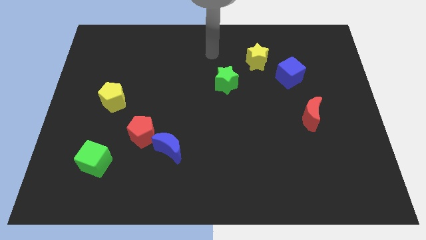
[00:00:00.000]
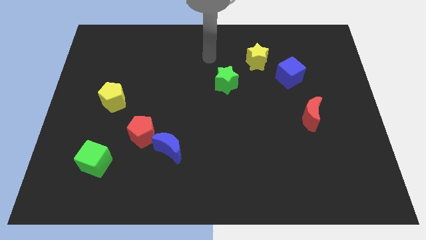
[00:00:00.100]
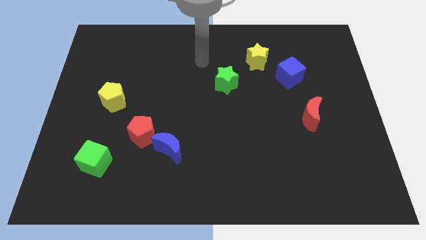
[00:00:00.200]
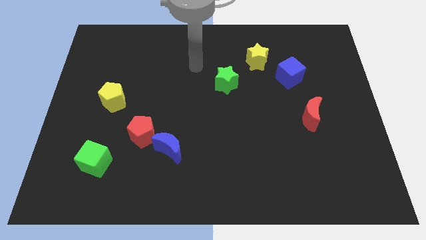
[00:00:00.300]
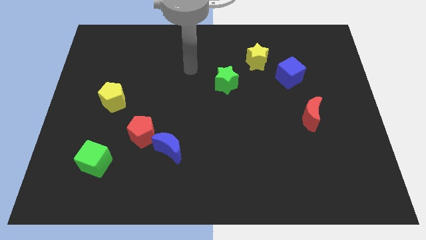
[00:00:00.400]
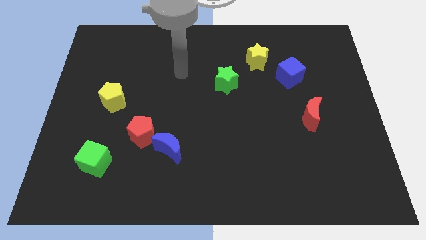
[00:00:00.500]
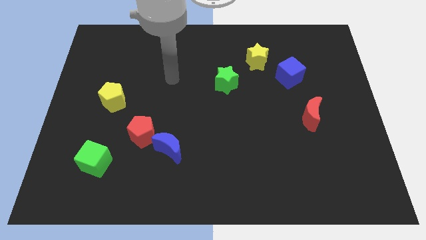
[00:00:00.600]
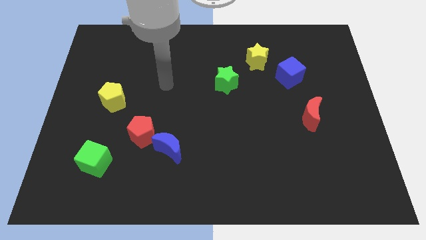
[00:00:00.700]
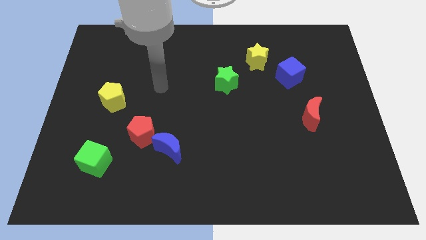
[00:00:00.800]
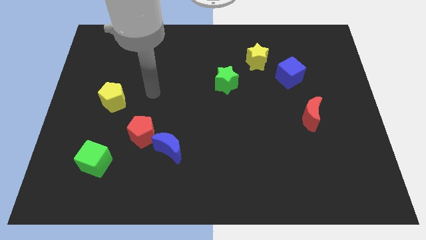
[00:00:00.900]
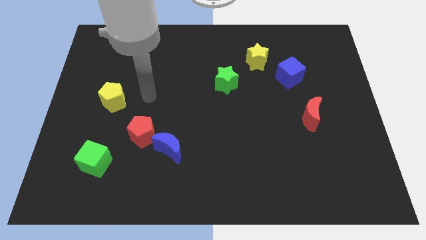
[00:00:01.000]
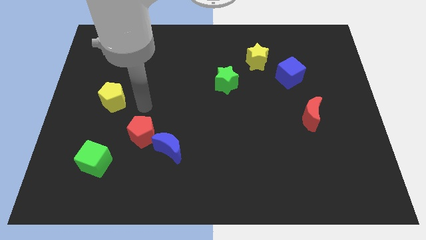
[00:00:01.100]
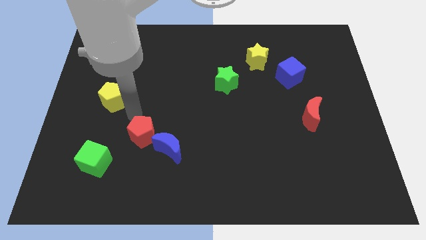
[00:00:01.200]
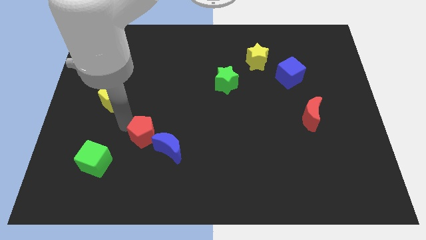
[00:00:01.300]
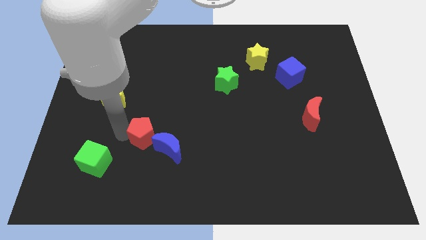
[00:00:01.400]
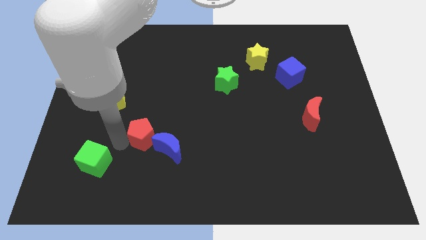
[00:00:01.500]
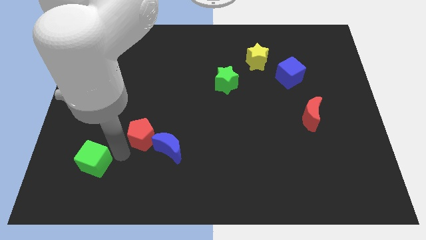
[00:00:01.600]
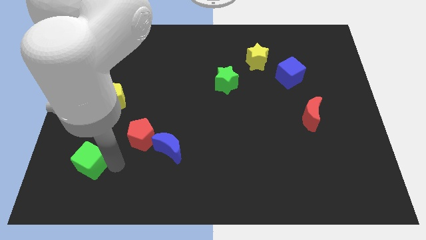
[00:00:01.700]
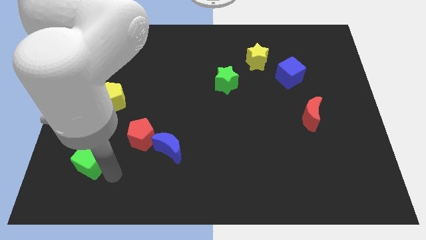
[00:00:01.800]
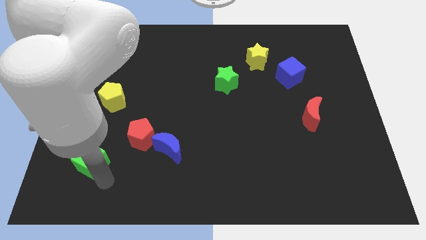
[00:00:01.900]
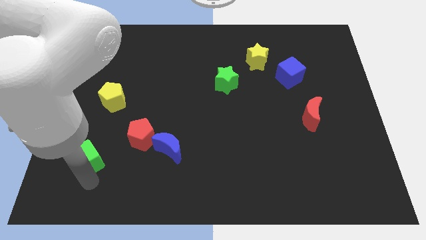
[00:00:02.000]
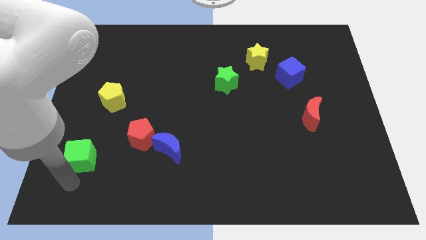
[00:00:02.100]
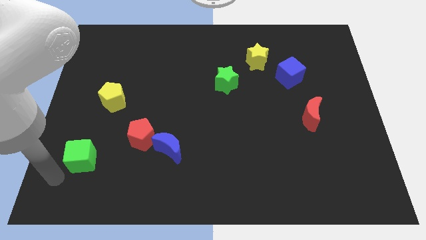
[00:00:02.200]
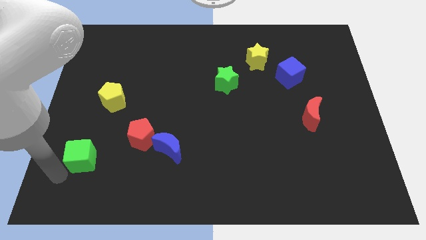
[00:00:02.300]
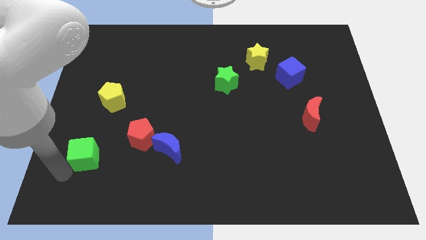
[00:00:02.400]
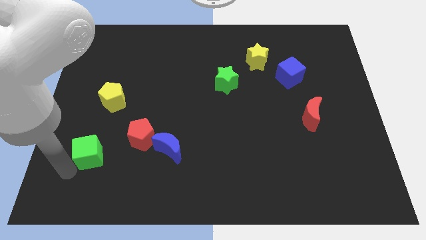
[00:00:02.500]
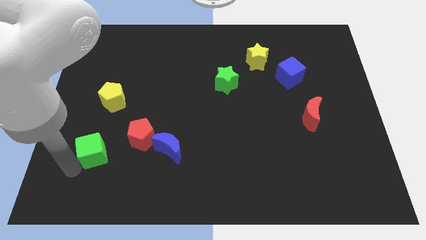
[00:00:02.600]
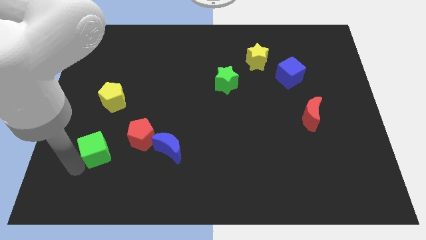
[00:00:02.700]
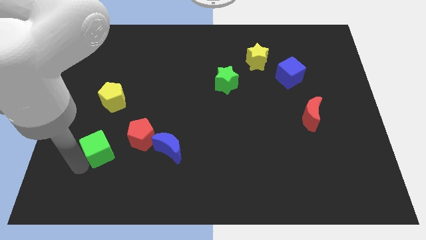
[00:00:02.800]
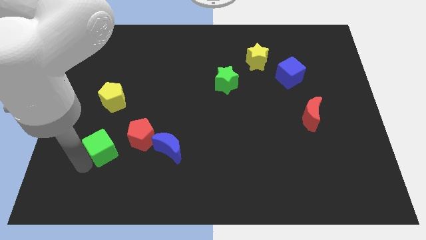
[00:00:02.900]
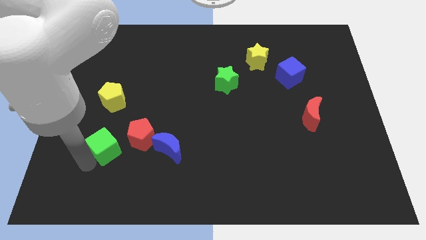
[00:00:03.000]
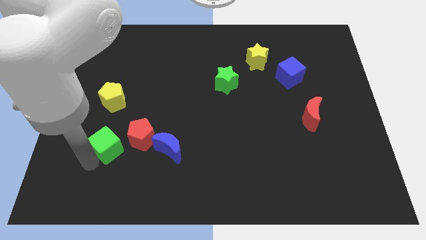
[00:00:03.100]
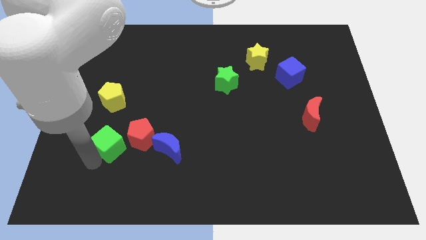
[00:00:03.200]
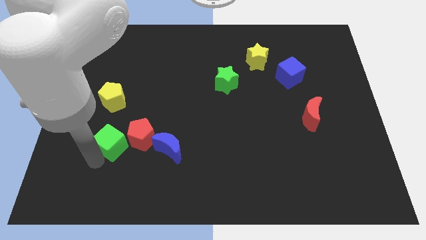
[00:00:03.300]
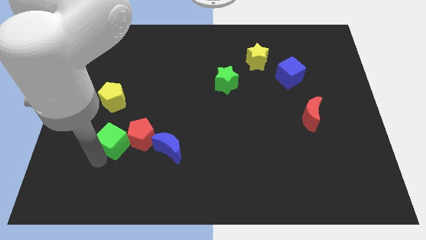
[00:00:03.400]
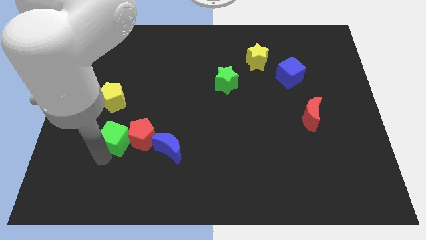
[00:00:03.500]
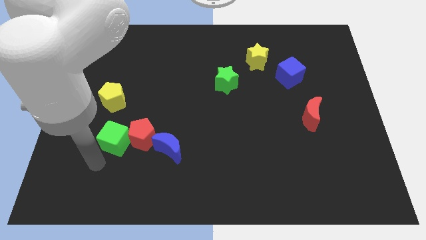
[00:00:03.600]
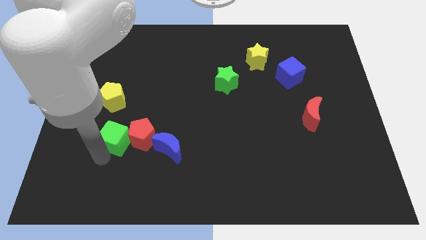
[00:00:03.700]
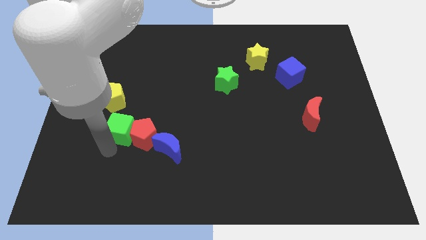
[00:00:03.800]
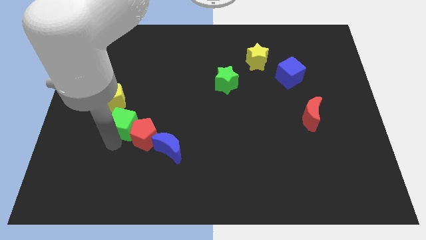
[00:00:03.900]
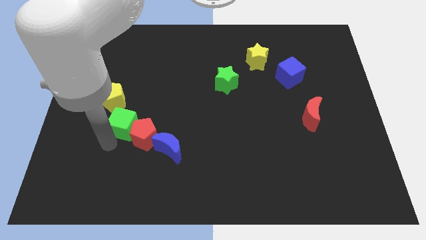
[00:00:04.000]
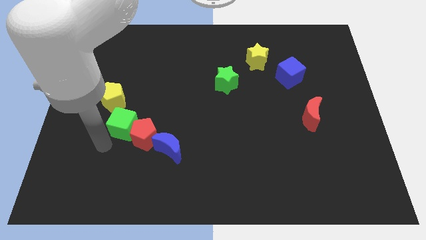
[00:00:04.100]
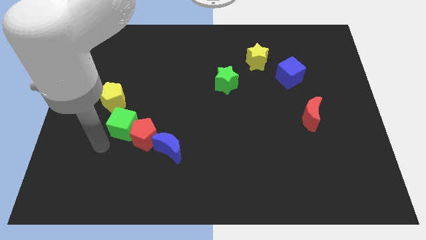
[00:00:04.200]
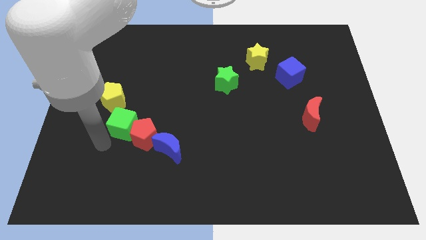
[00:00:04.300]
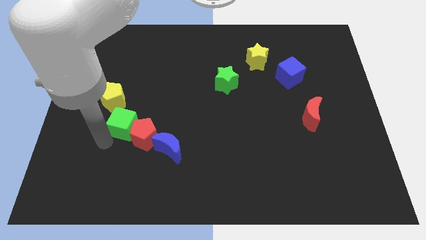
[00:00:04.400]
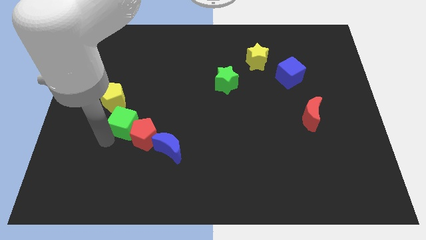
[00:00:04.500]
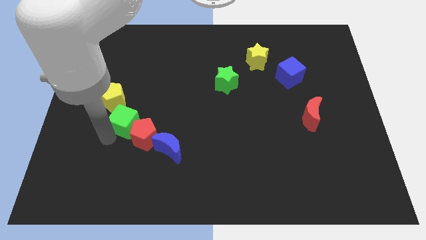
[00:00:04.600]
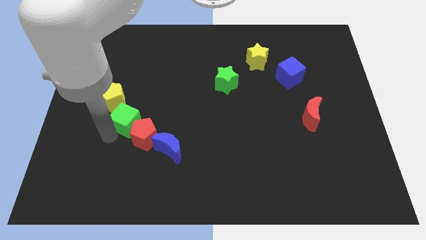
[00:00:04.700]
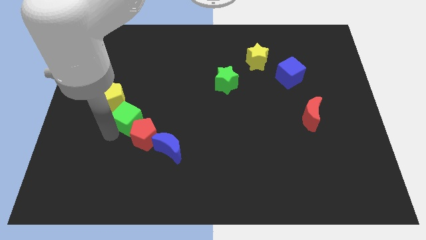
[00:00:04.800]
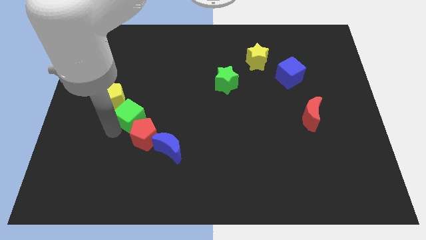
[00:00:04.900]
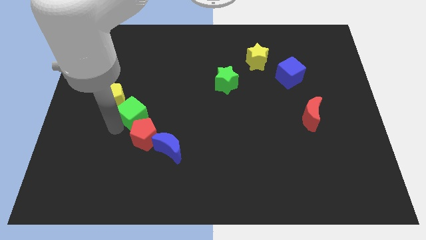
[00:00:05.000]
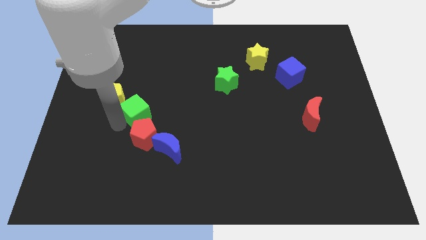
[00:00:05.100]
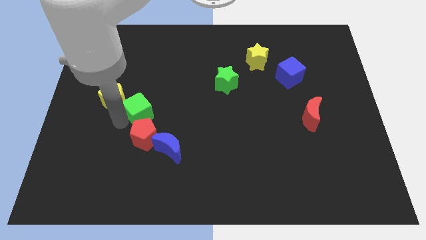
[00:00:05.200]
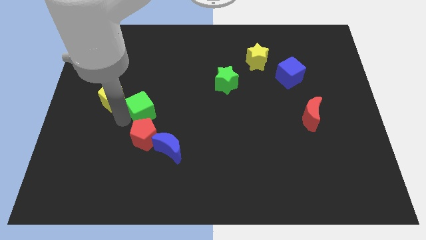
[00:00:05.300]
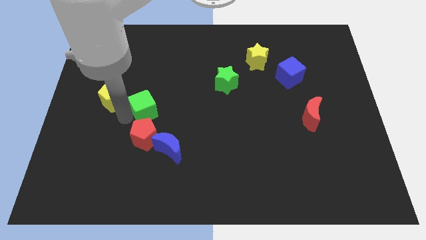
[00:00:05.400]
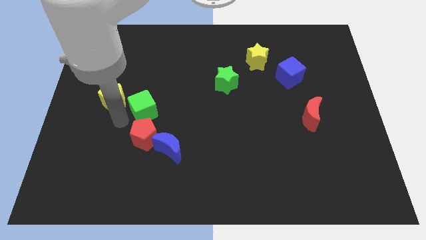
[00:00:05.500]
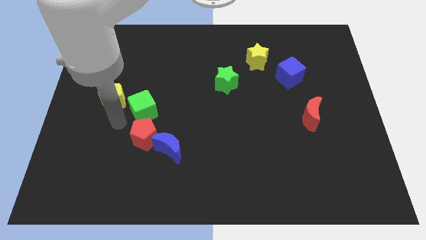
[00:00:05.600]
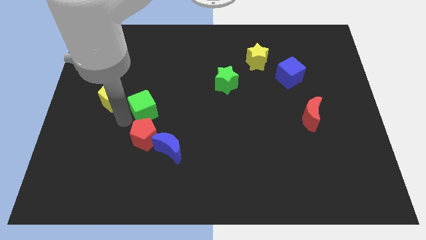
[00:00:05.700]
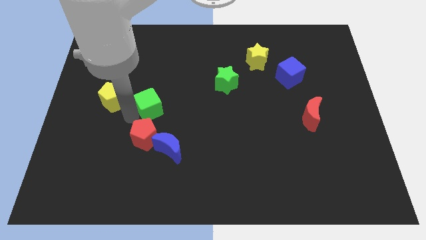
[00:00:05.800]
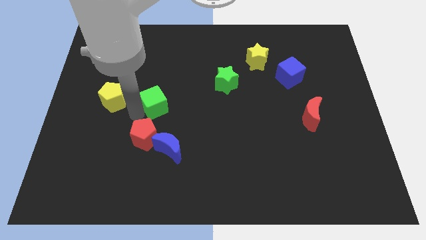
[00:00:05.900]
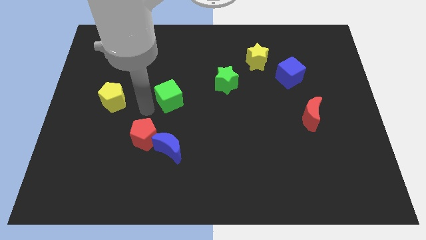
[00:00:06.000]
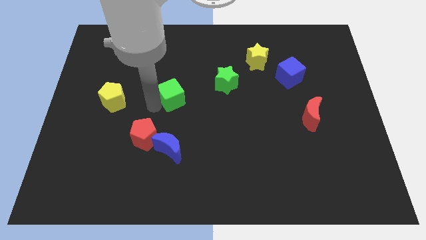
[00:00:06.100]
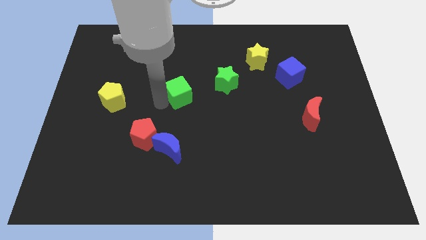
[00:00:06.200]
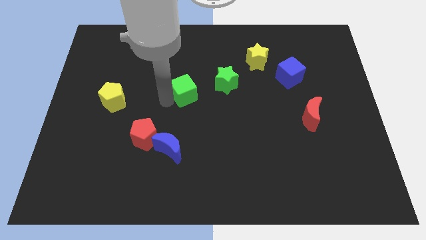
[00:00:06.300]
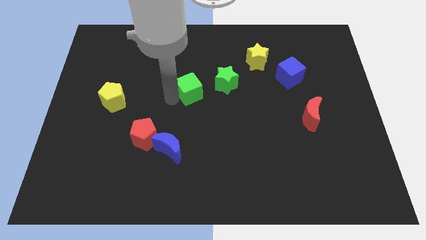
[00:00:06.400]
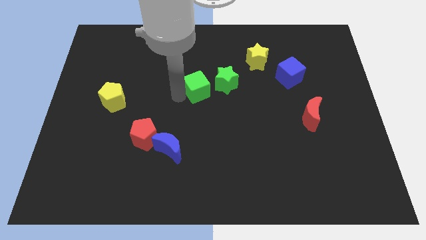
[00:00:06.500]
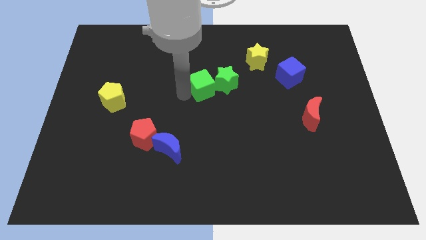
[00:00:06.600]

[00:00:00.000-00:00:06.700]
move the green cube to the green star

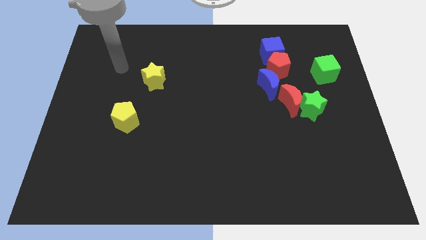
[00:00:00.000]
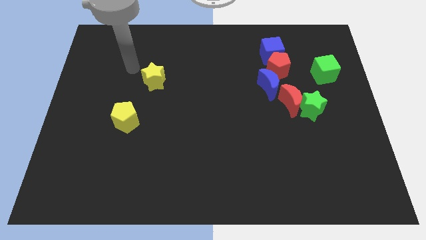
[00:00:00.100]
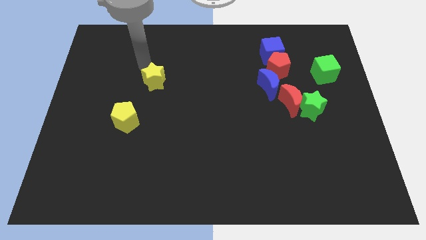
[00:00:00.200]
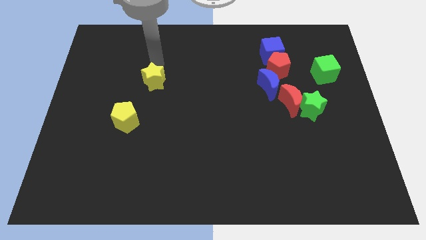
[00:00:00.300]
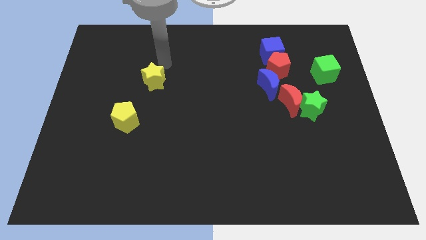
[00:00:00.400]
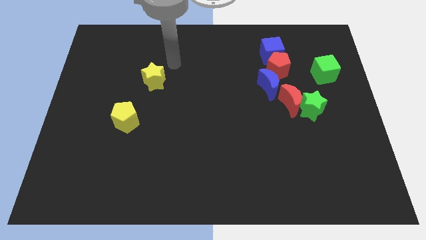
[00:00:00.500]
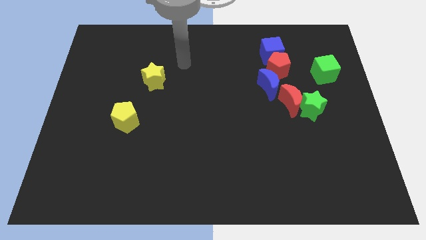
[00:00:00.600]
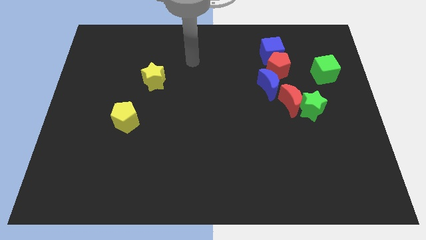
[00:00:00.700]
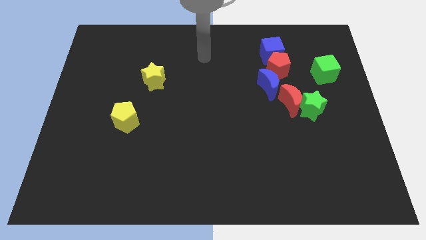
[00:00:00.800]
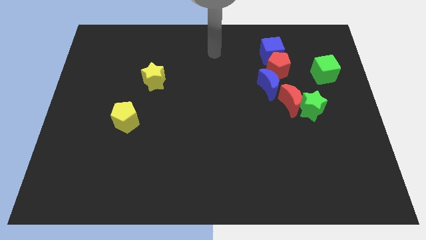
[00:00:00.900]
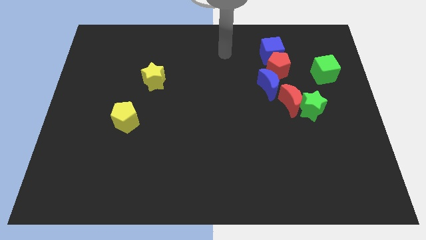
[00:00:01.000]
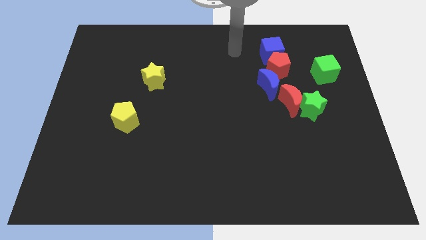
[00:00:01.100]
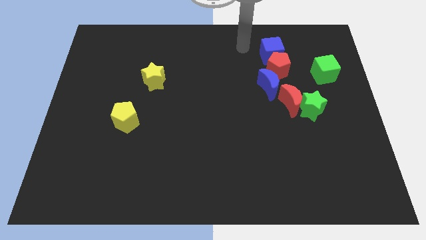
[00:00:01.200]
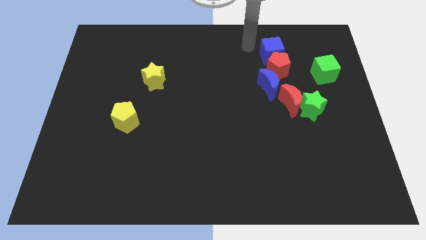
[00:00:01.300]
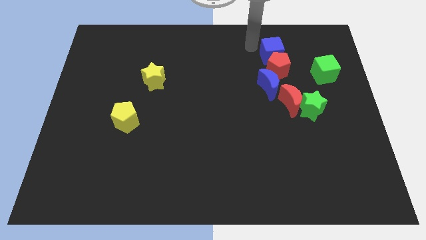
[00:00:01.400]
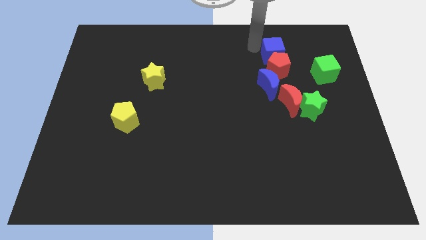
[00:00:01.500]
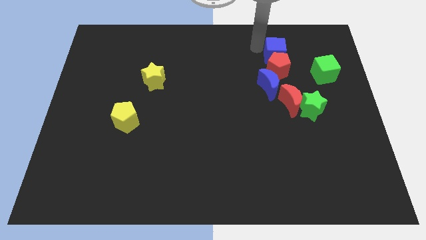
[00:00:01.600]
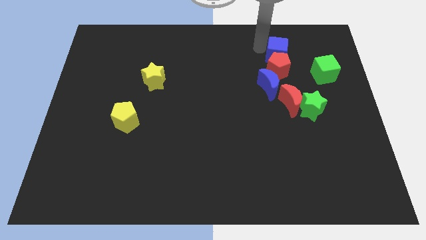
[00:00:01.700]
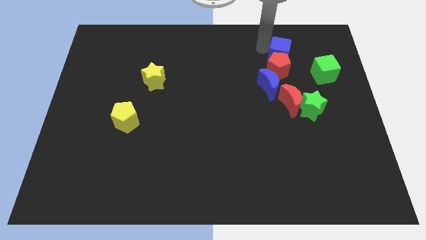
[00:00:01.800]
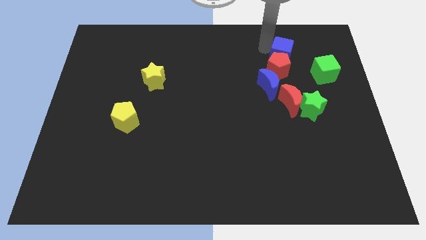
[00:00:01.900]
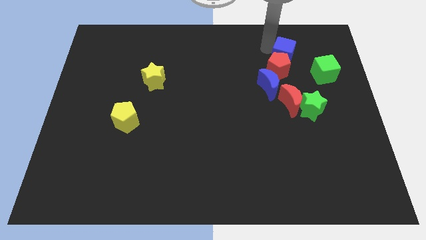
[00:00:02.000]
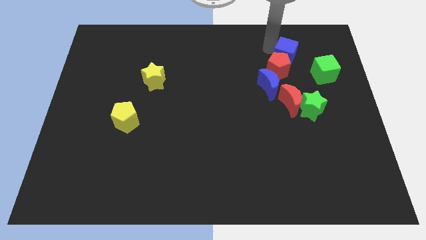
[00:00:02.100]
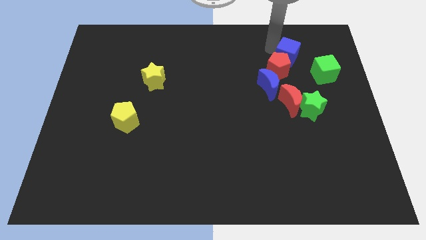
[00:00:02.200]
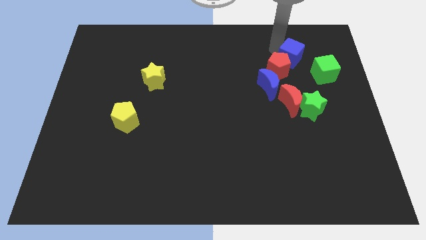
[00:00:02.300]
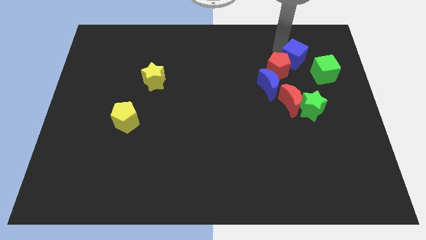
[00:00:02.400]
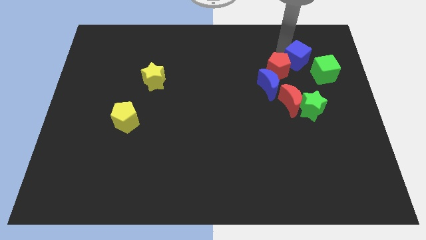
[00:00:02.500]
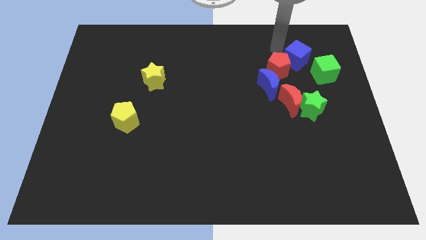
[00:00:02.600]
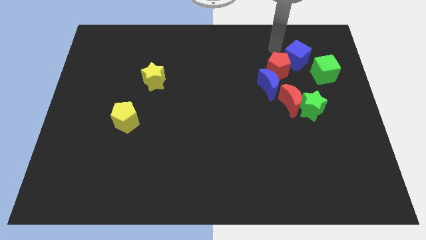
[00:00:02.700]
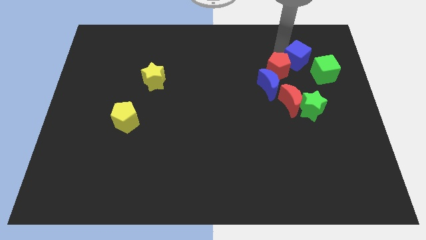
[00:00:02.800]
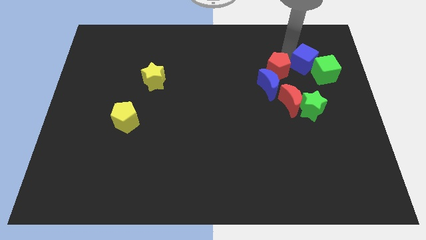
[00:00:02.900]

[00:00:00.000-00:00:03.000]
put the blue cube close to the green cube
